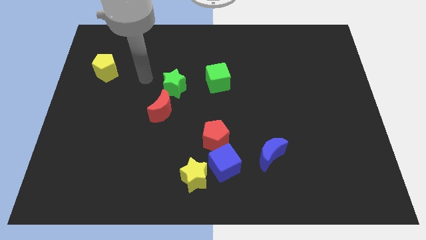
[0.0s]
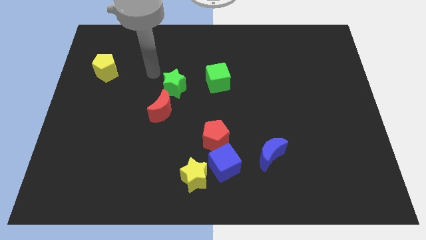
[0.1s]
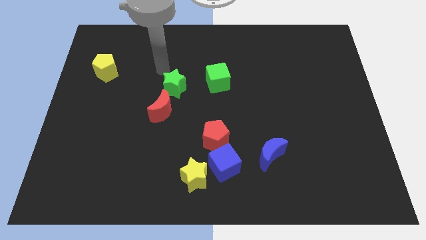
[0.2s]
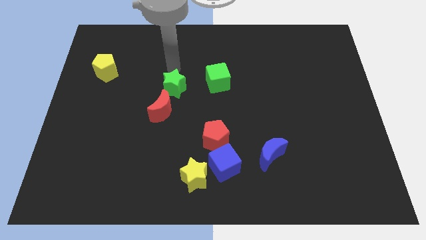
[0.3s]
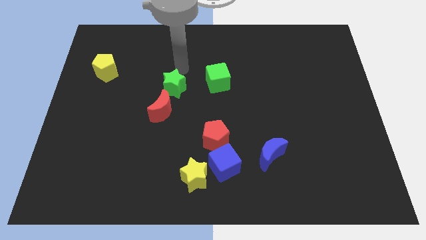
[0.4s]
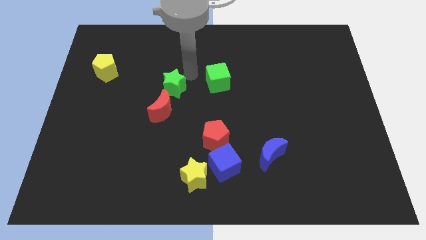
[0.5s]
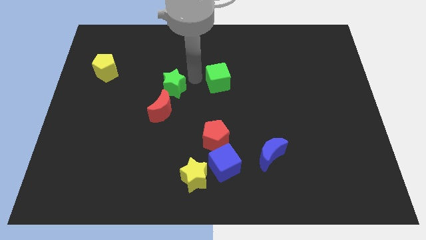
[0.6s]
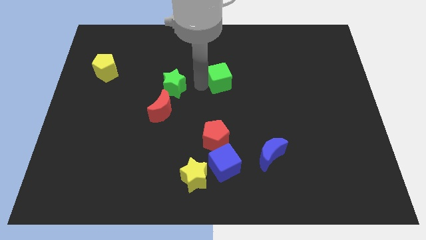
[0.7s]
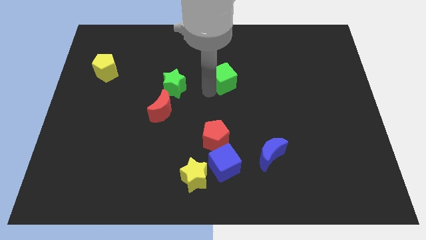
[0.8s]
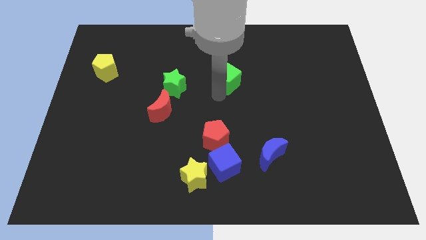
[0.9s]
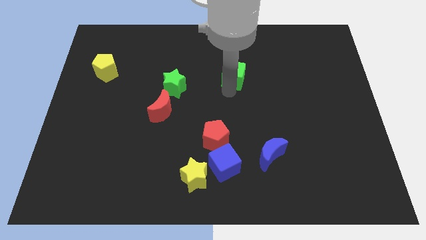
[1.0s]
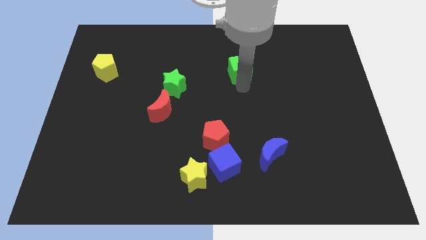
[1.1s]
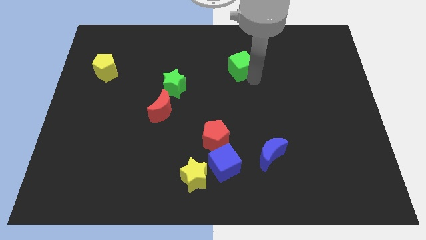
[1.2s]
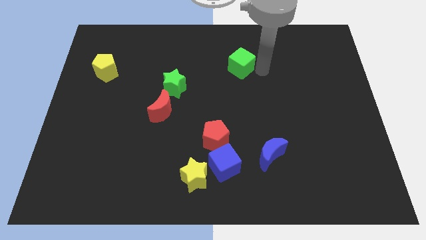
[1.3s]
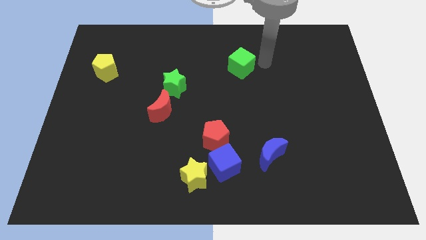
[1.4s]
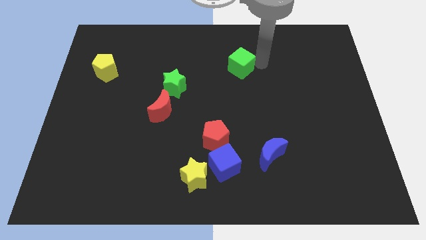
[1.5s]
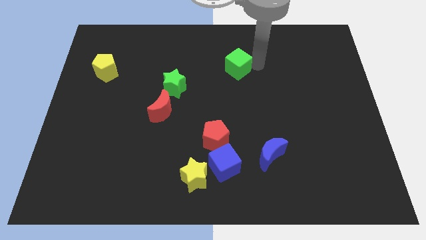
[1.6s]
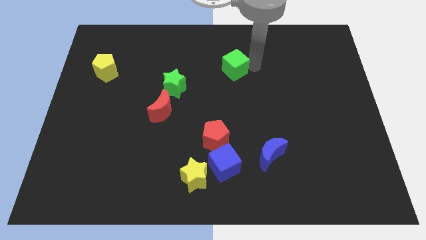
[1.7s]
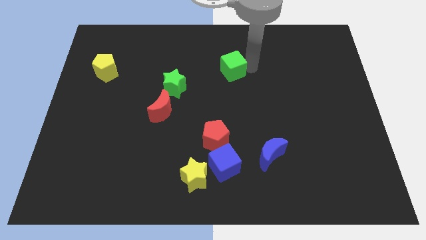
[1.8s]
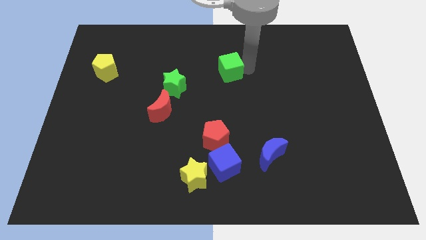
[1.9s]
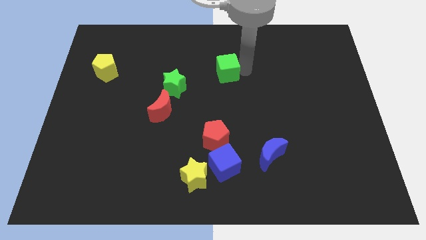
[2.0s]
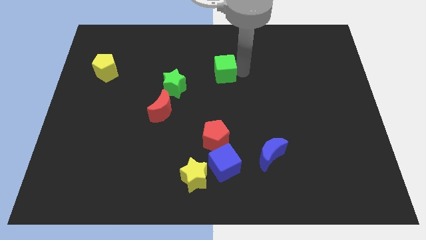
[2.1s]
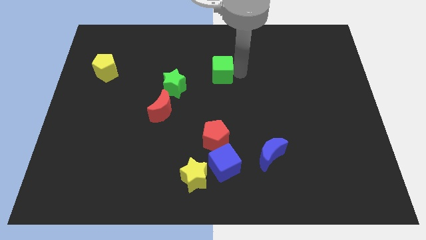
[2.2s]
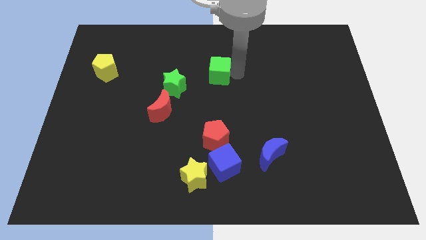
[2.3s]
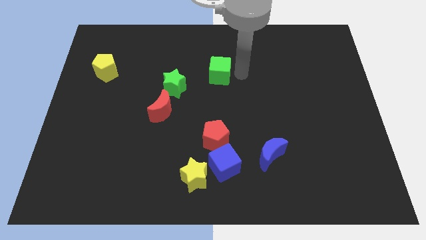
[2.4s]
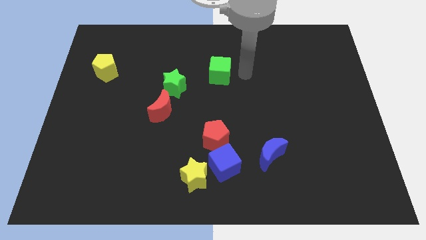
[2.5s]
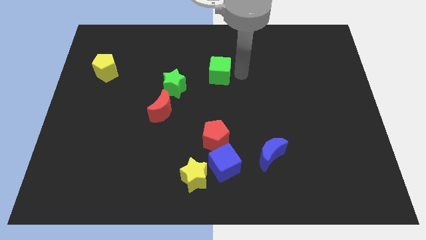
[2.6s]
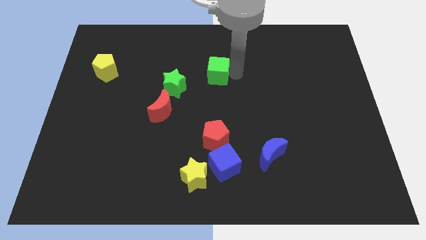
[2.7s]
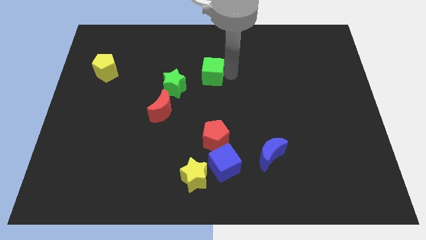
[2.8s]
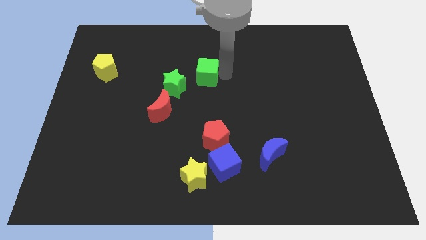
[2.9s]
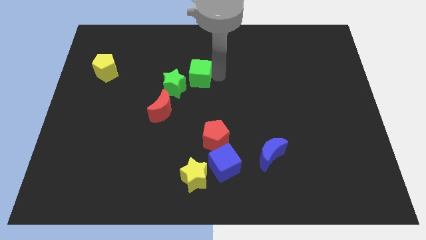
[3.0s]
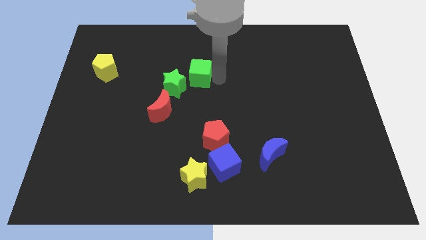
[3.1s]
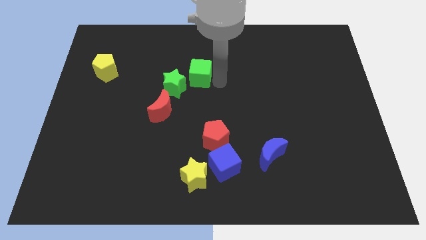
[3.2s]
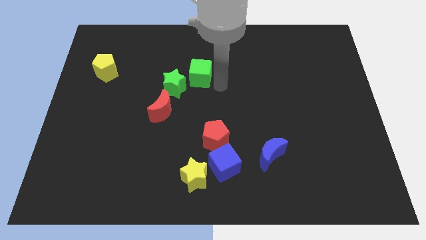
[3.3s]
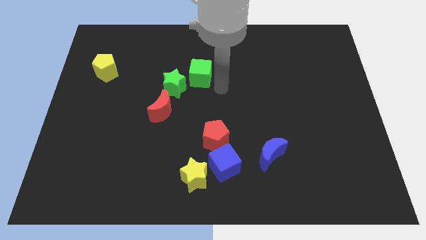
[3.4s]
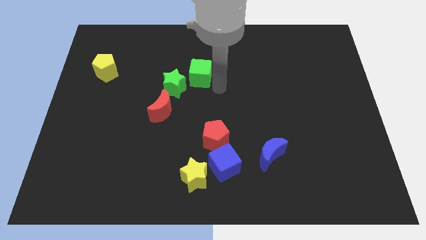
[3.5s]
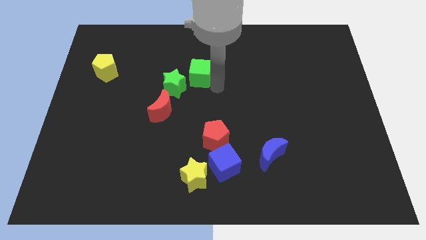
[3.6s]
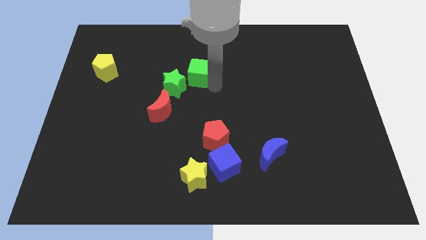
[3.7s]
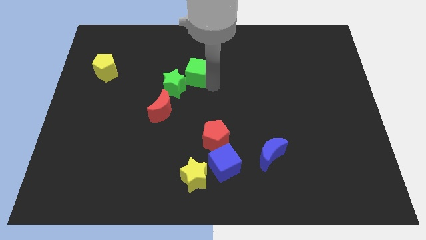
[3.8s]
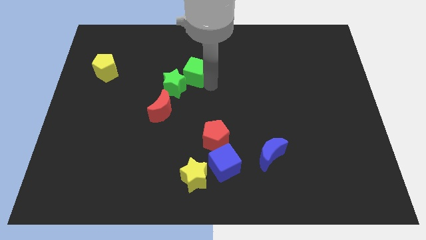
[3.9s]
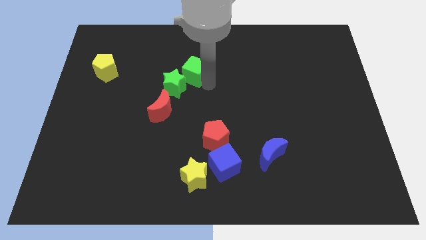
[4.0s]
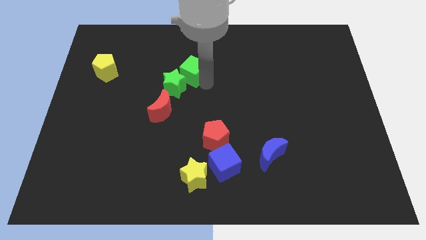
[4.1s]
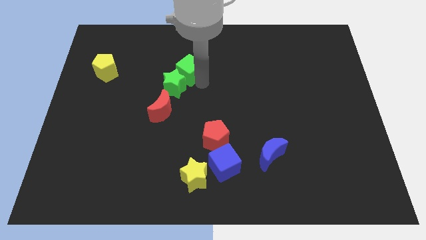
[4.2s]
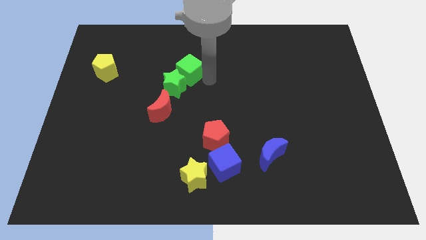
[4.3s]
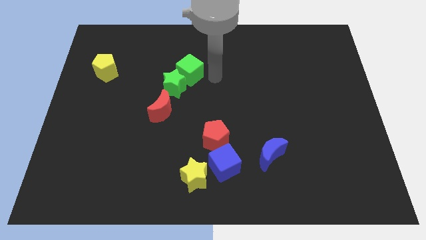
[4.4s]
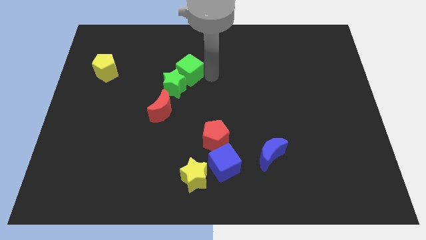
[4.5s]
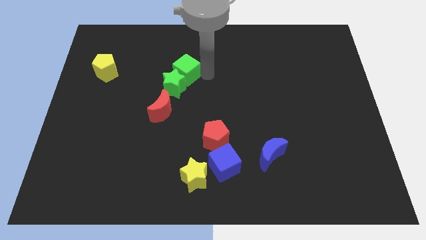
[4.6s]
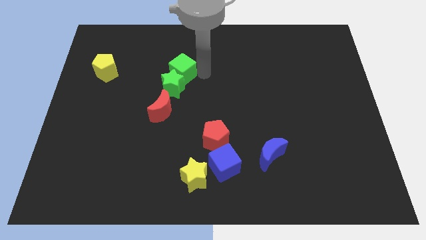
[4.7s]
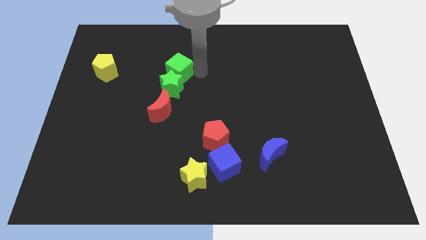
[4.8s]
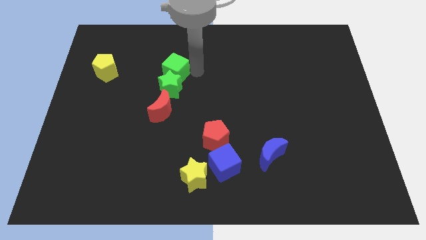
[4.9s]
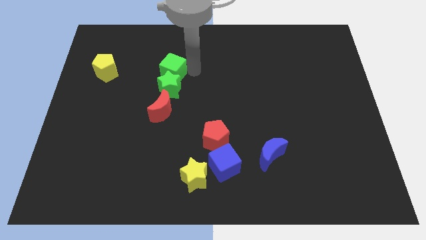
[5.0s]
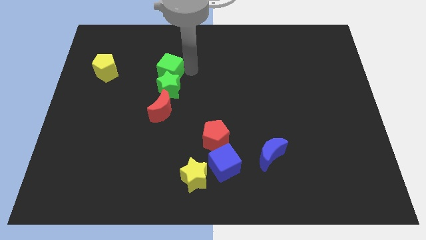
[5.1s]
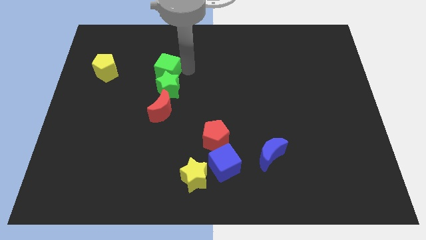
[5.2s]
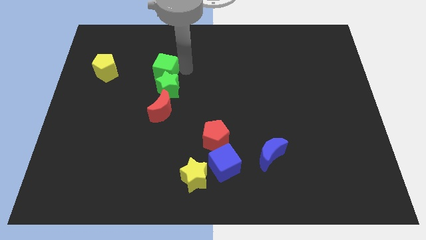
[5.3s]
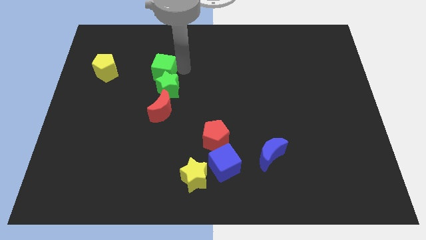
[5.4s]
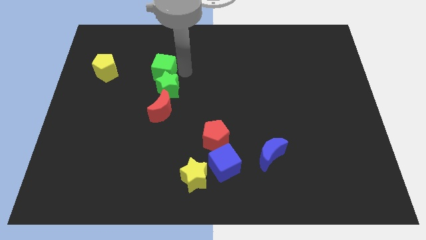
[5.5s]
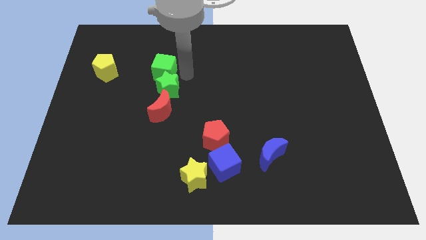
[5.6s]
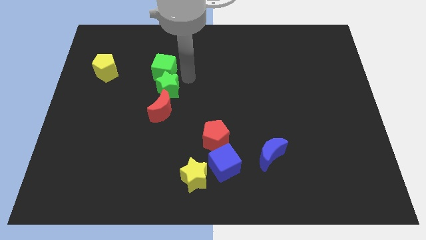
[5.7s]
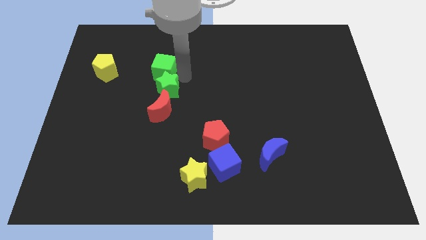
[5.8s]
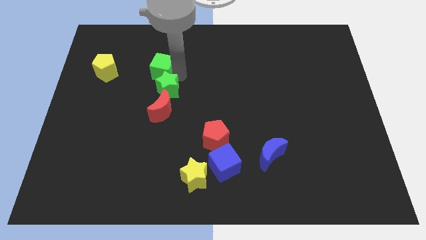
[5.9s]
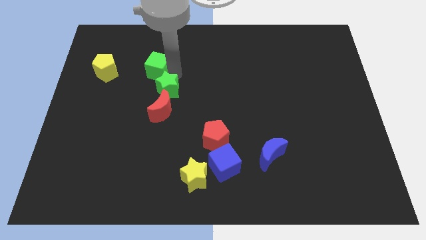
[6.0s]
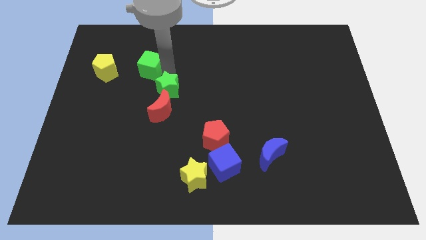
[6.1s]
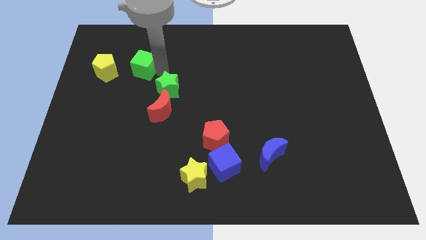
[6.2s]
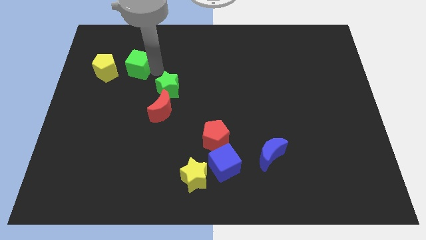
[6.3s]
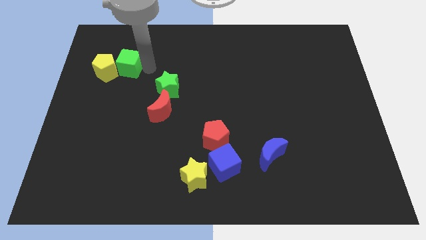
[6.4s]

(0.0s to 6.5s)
move the green cube close to the yellow pentagon
